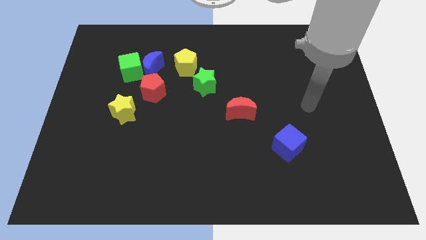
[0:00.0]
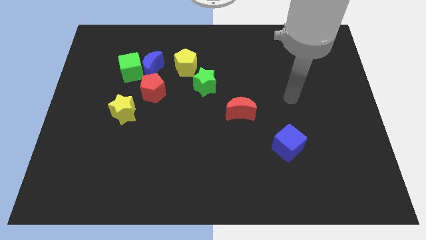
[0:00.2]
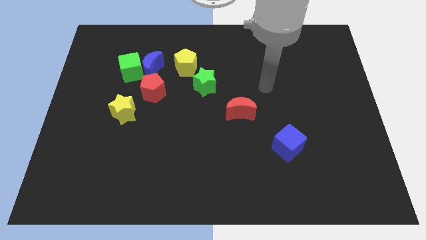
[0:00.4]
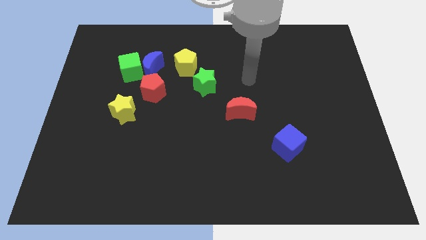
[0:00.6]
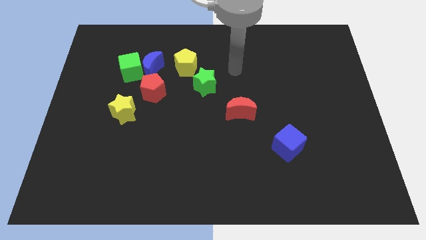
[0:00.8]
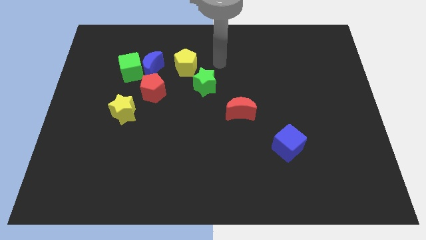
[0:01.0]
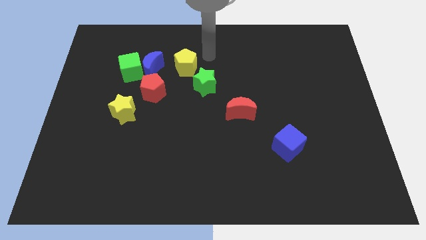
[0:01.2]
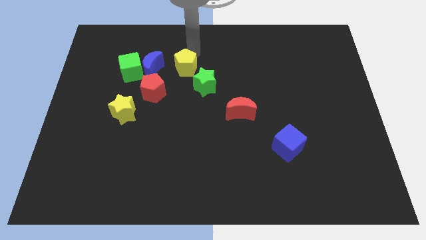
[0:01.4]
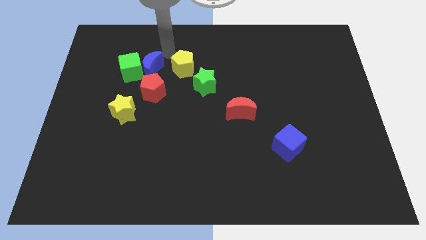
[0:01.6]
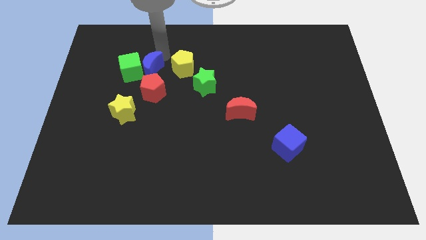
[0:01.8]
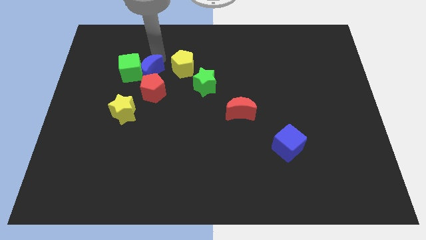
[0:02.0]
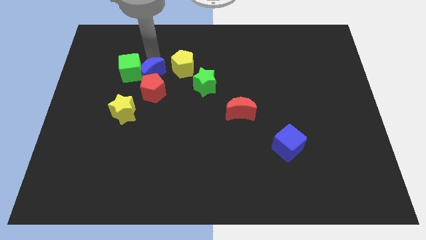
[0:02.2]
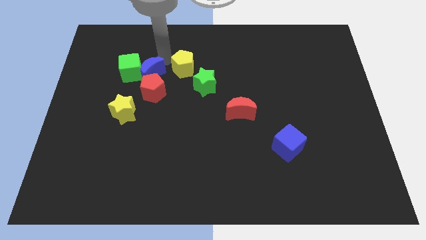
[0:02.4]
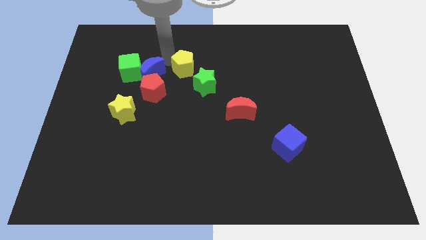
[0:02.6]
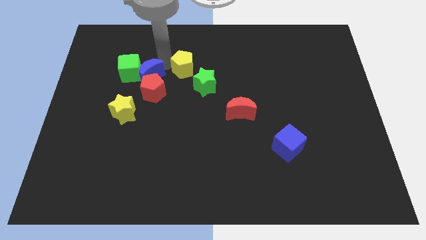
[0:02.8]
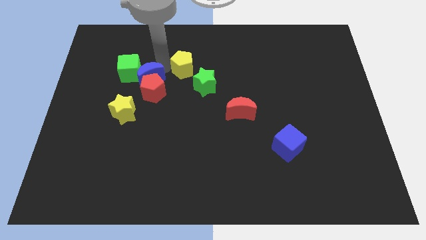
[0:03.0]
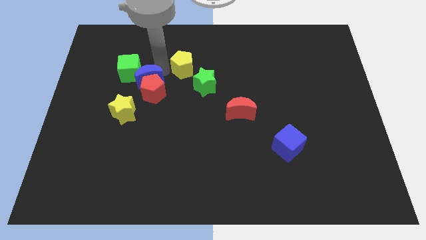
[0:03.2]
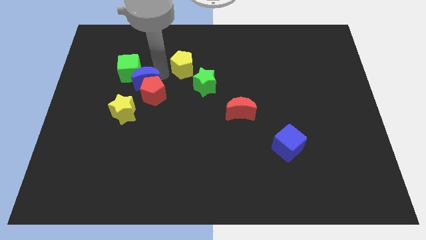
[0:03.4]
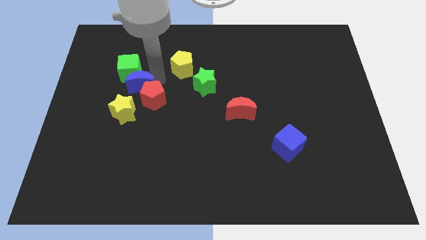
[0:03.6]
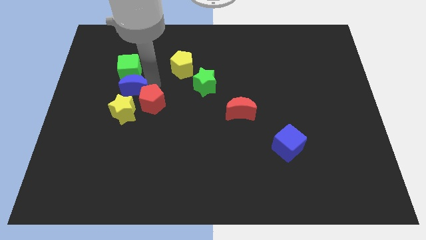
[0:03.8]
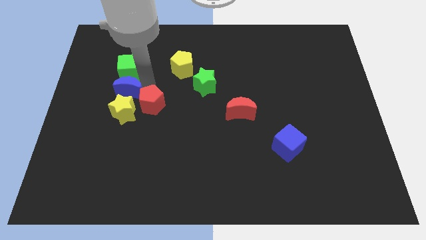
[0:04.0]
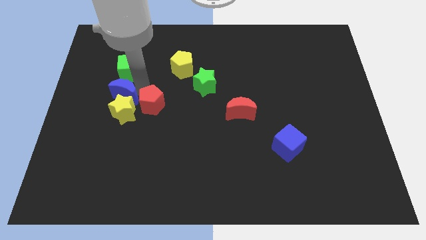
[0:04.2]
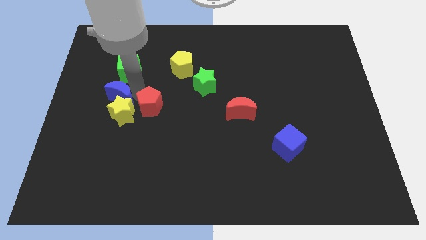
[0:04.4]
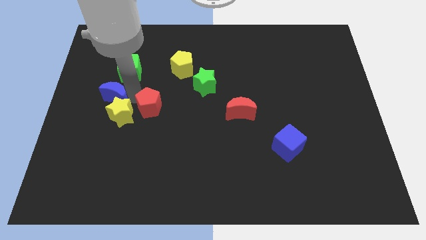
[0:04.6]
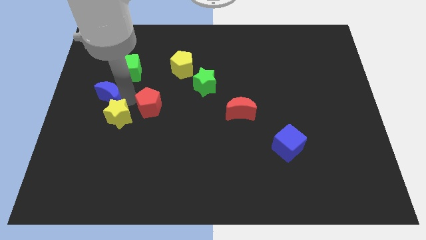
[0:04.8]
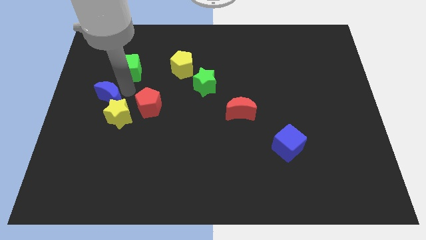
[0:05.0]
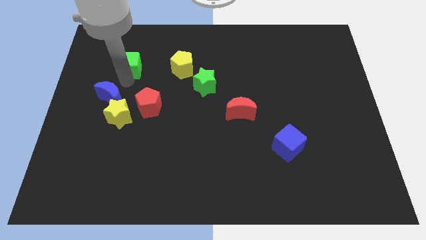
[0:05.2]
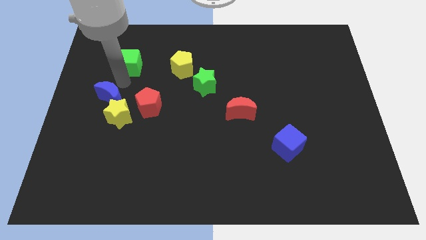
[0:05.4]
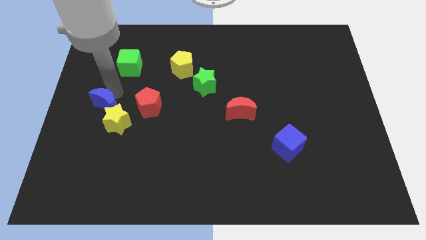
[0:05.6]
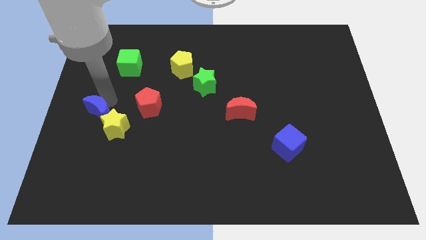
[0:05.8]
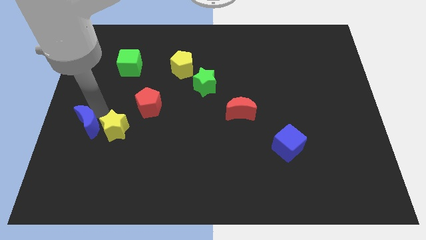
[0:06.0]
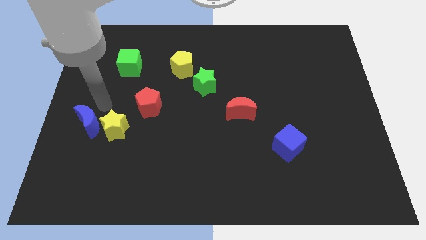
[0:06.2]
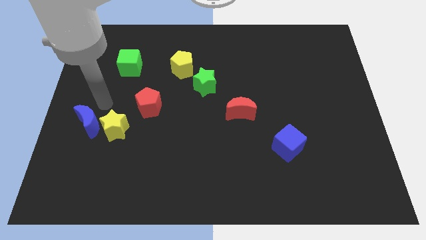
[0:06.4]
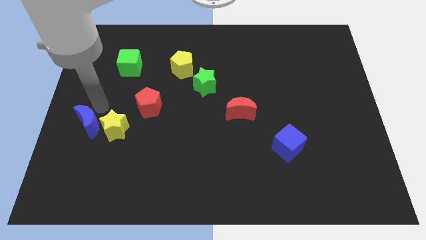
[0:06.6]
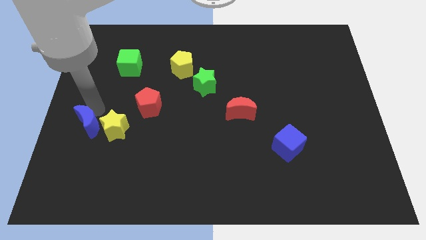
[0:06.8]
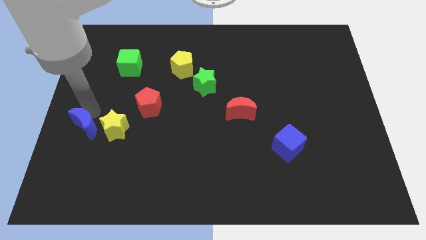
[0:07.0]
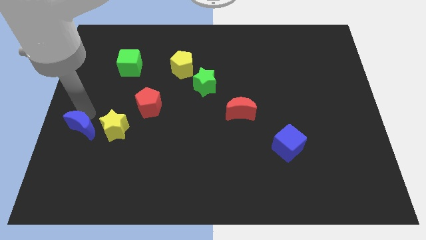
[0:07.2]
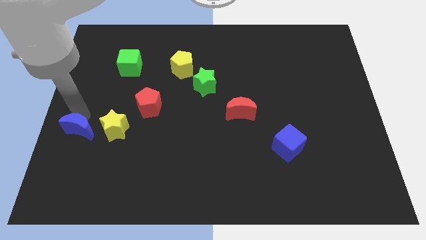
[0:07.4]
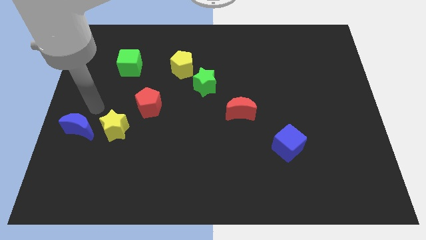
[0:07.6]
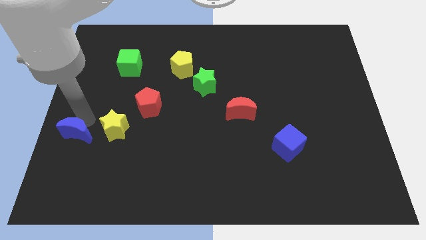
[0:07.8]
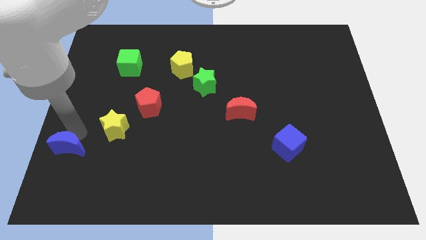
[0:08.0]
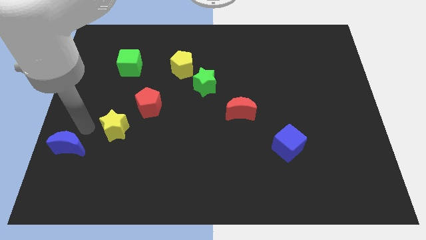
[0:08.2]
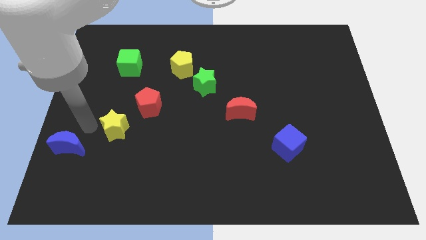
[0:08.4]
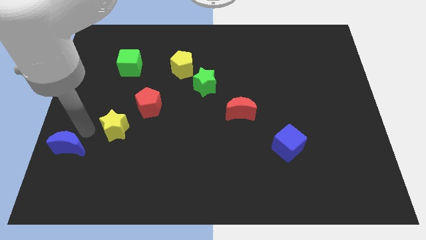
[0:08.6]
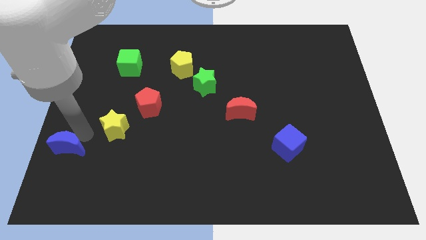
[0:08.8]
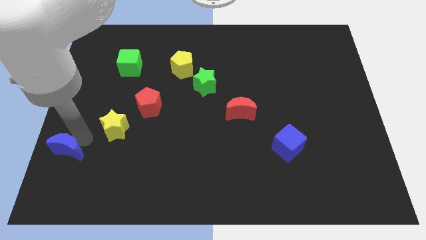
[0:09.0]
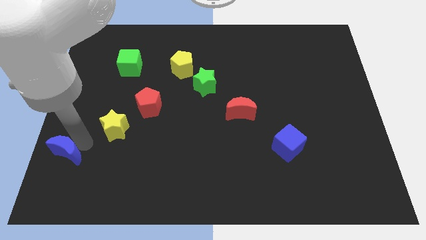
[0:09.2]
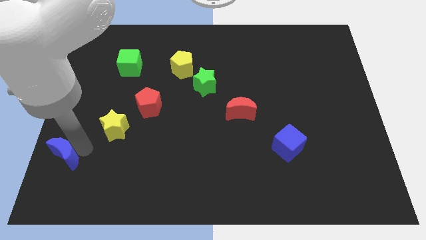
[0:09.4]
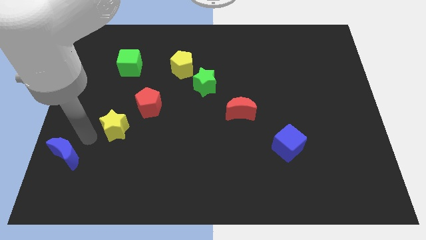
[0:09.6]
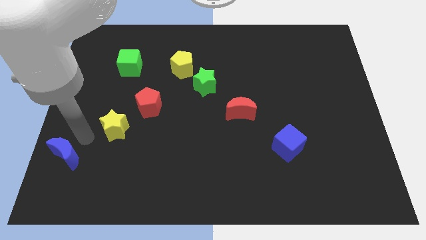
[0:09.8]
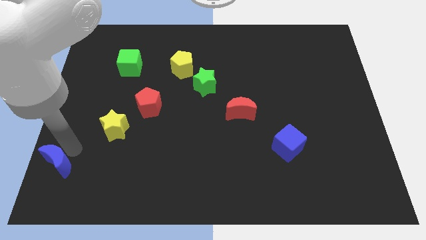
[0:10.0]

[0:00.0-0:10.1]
put the blue moon to the bottom left
